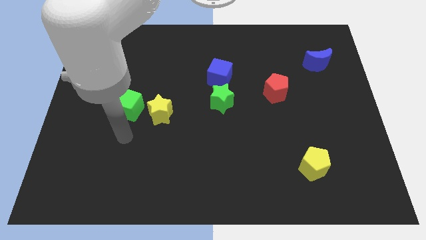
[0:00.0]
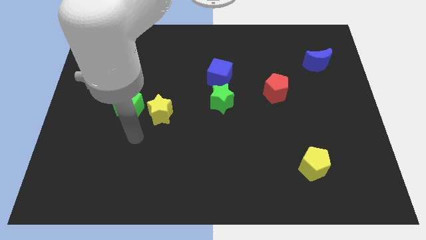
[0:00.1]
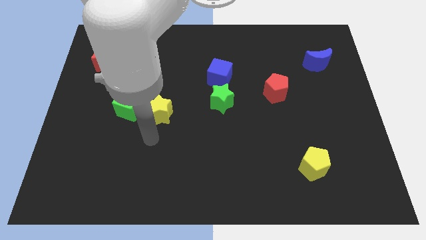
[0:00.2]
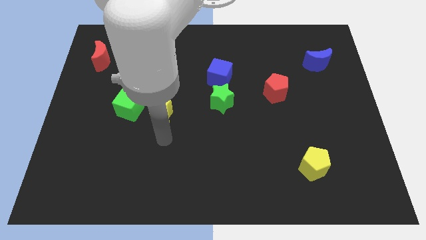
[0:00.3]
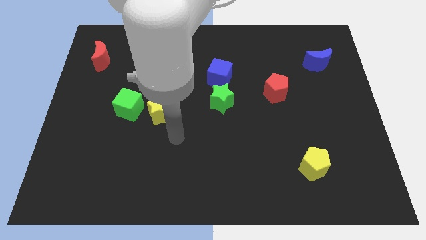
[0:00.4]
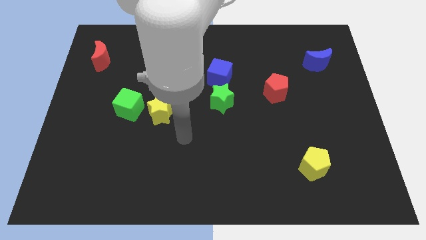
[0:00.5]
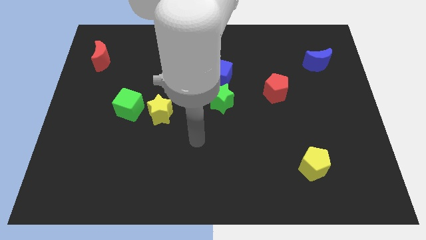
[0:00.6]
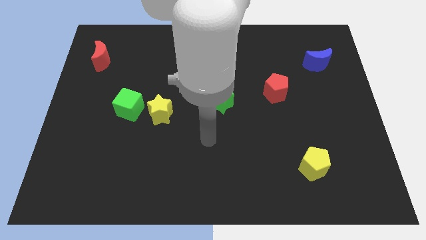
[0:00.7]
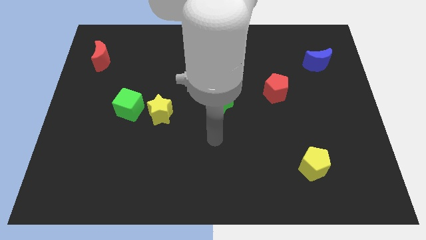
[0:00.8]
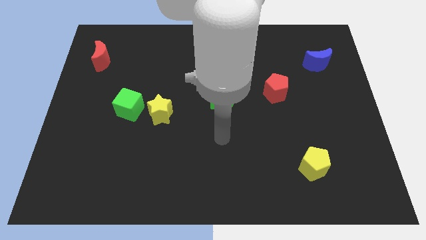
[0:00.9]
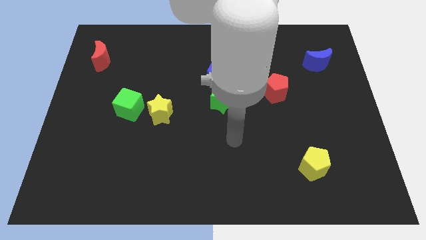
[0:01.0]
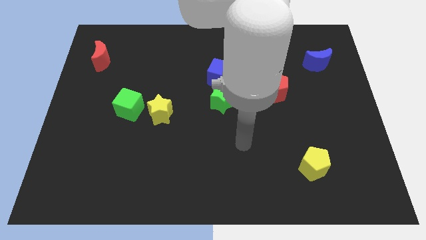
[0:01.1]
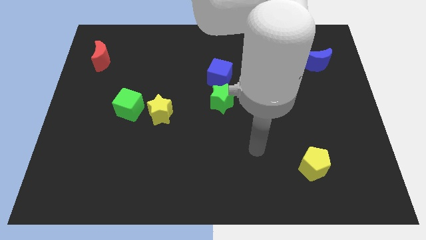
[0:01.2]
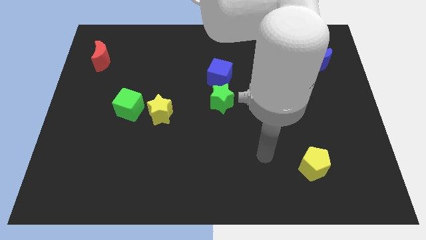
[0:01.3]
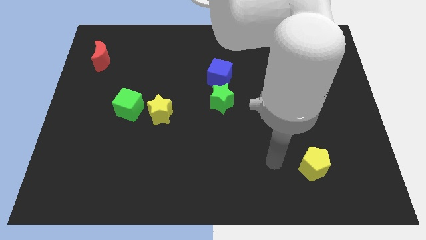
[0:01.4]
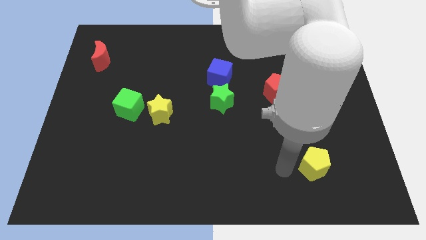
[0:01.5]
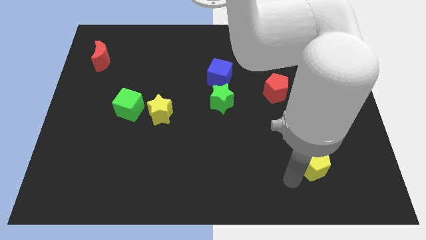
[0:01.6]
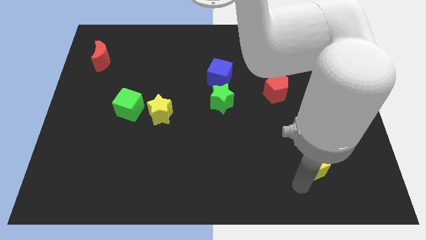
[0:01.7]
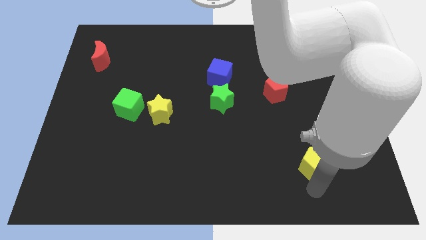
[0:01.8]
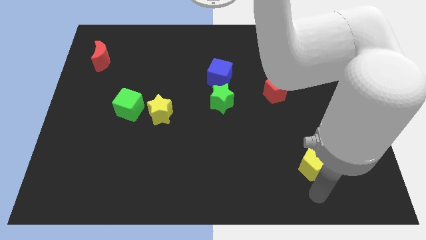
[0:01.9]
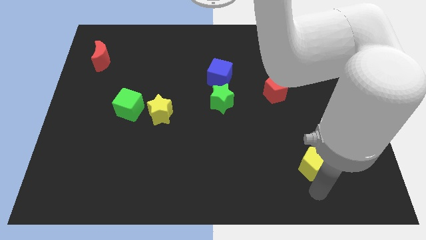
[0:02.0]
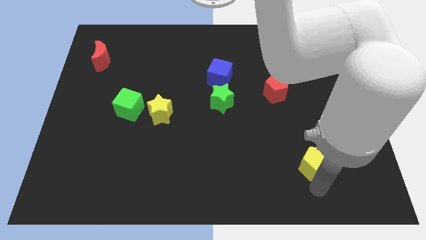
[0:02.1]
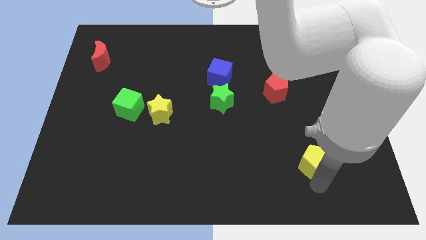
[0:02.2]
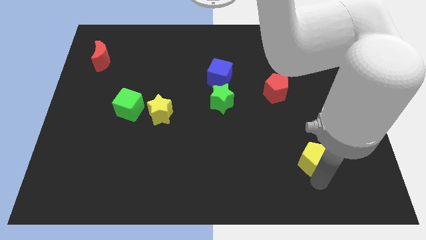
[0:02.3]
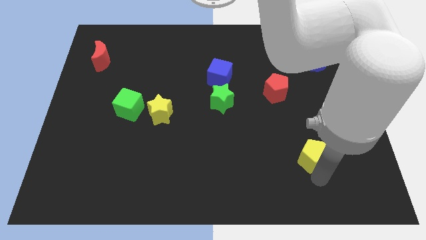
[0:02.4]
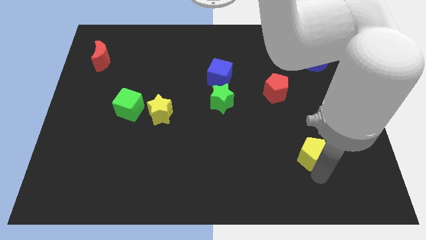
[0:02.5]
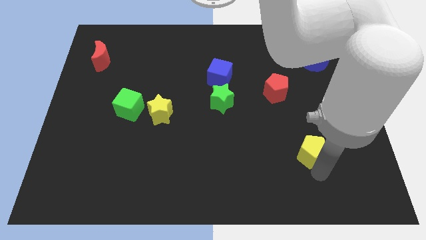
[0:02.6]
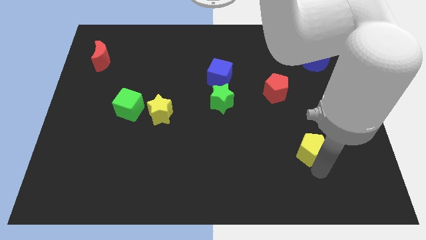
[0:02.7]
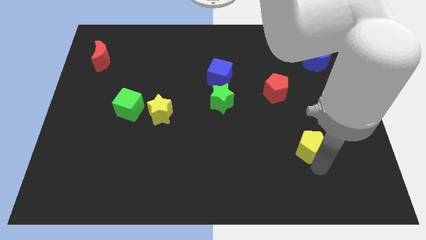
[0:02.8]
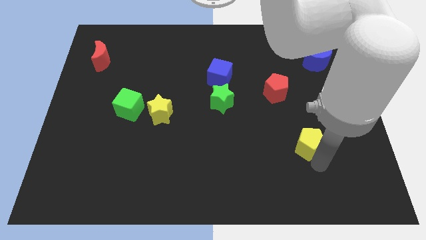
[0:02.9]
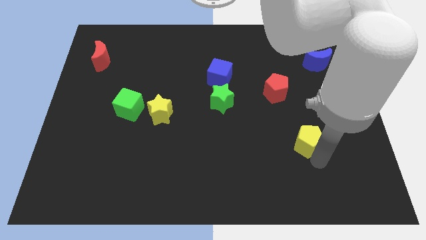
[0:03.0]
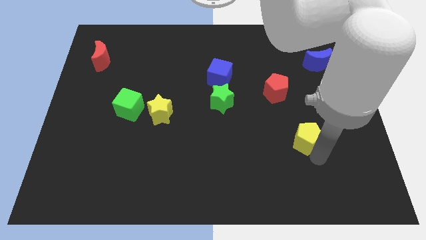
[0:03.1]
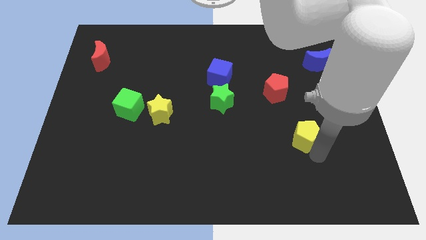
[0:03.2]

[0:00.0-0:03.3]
push the yellow pentagon upwards slightly

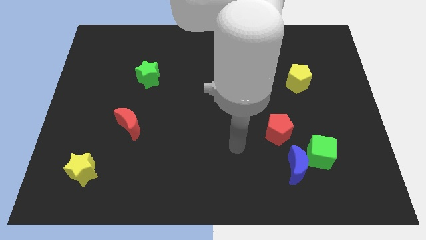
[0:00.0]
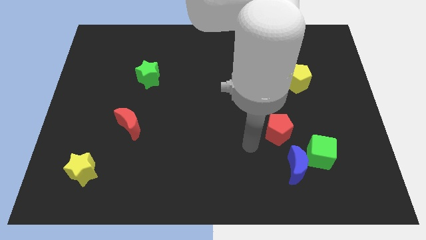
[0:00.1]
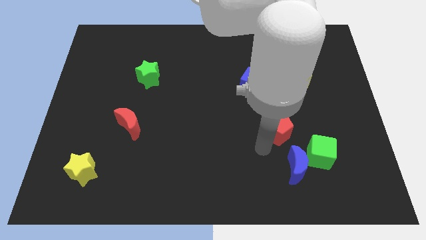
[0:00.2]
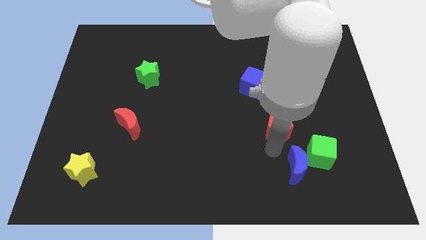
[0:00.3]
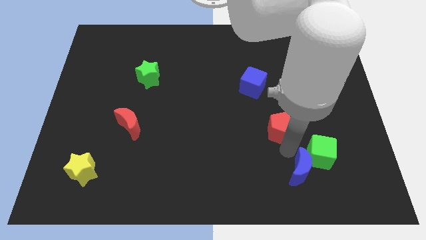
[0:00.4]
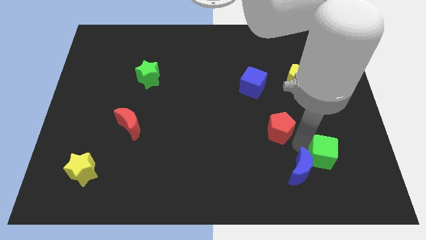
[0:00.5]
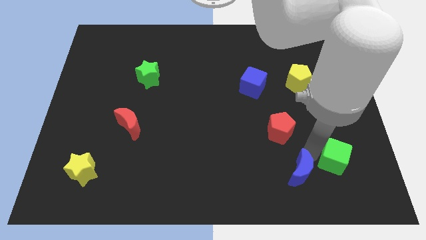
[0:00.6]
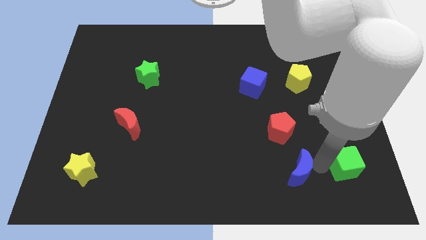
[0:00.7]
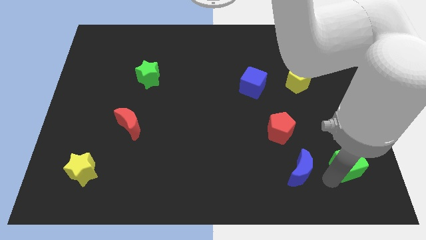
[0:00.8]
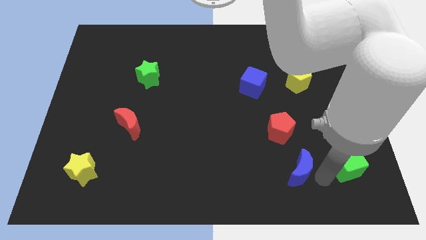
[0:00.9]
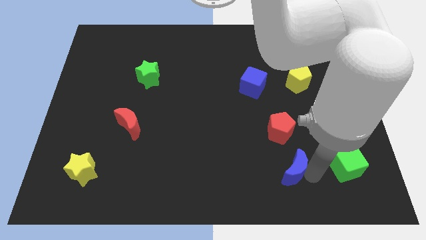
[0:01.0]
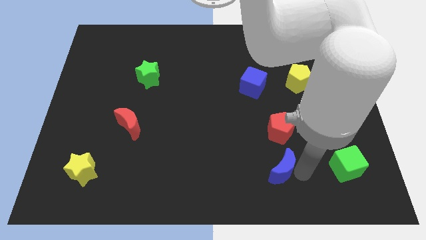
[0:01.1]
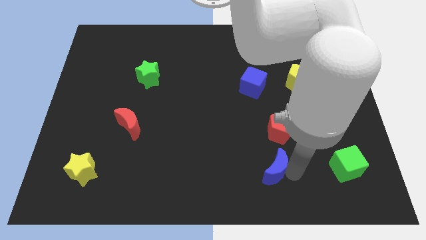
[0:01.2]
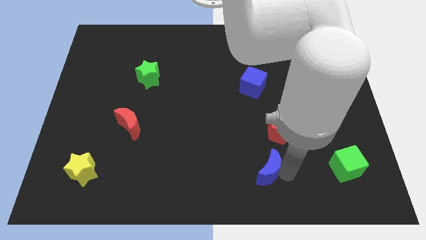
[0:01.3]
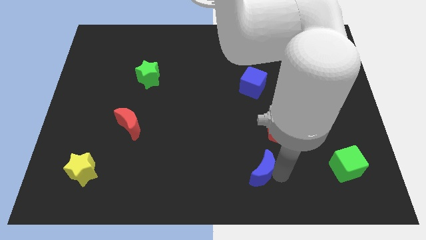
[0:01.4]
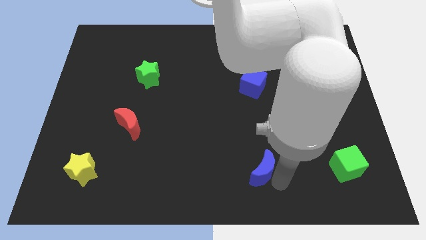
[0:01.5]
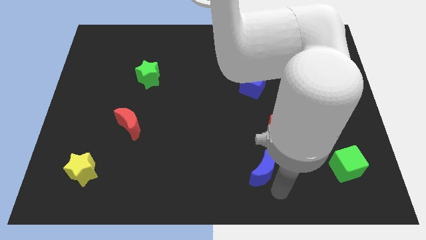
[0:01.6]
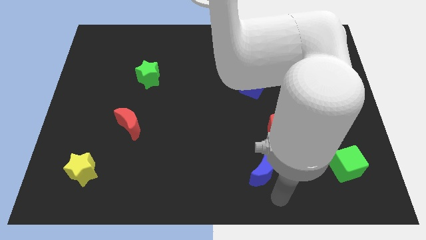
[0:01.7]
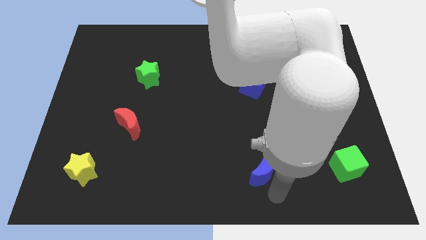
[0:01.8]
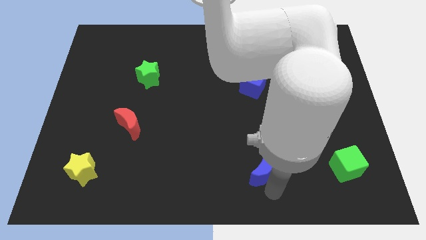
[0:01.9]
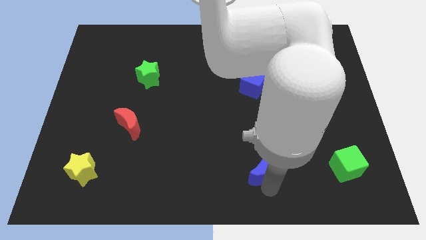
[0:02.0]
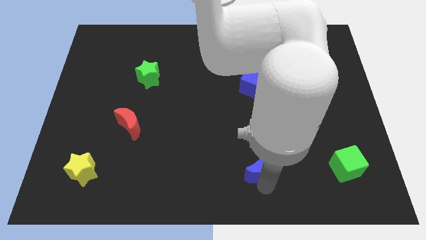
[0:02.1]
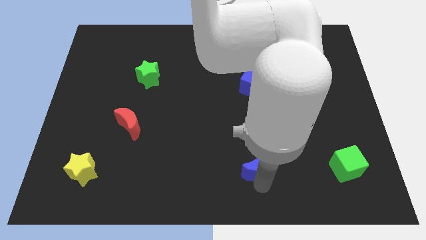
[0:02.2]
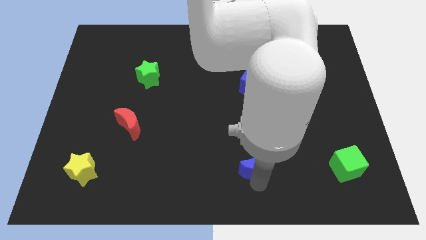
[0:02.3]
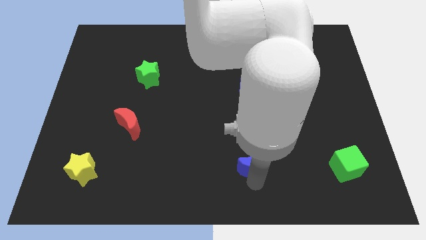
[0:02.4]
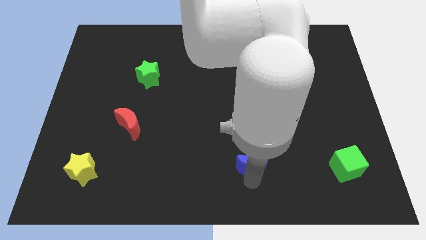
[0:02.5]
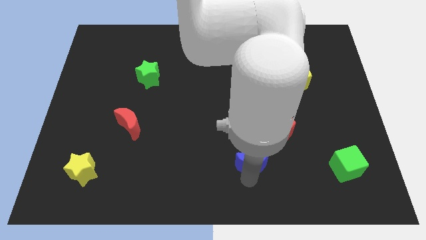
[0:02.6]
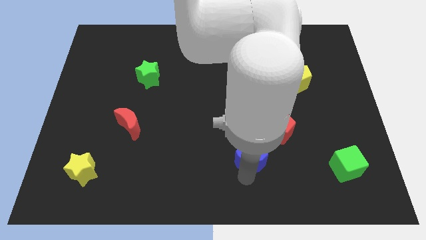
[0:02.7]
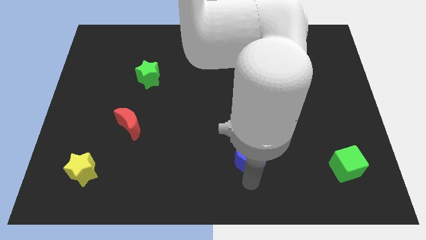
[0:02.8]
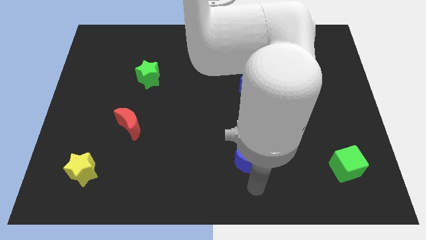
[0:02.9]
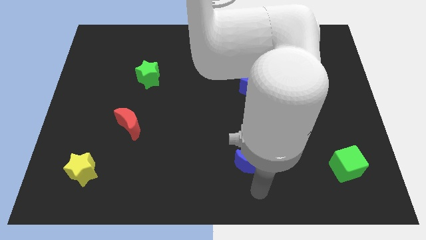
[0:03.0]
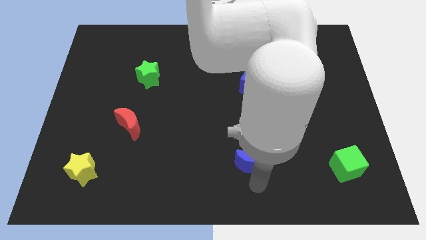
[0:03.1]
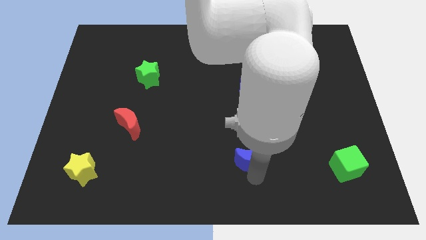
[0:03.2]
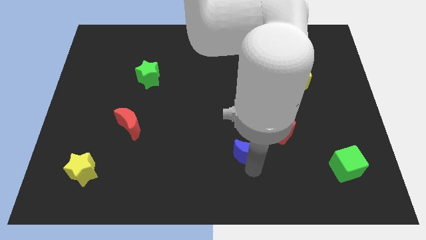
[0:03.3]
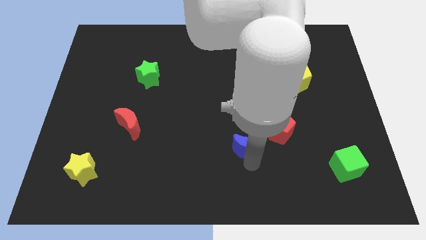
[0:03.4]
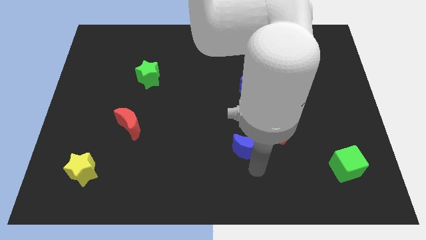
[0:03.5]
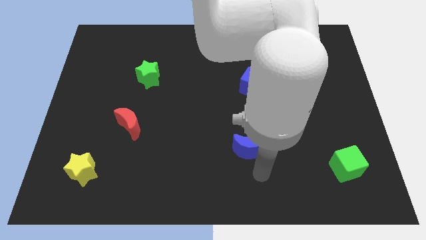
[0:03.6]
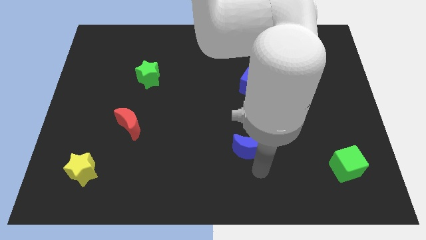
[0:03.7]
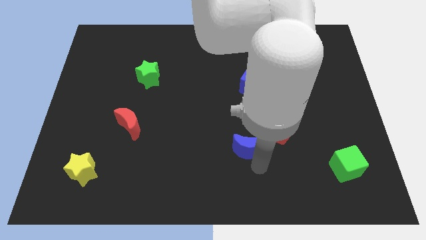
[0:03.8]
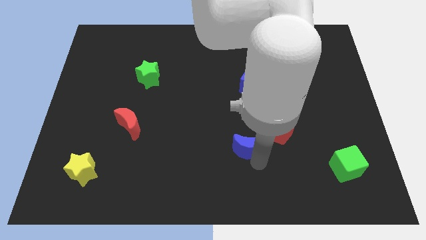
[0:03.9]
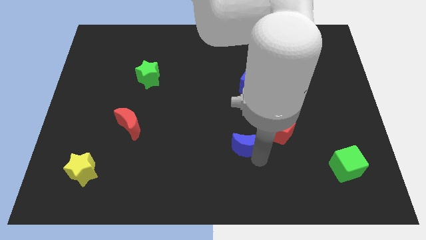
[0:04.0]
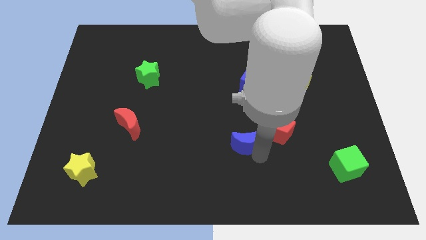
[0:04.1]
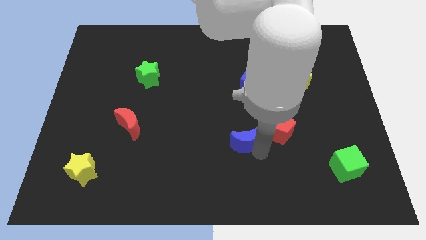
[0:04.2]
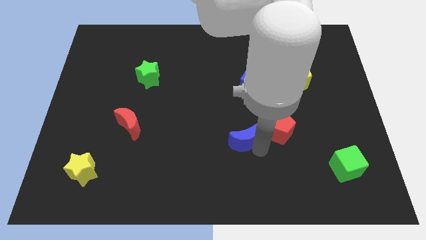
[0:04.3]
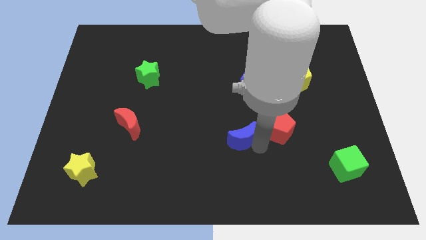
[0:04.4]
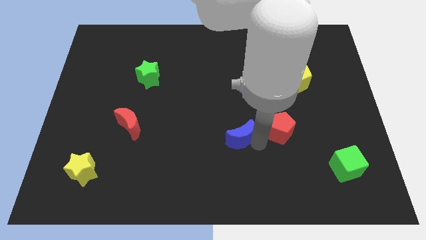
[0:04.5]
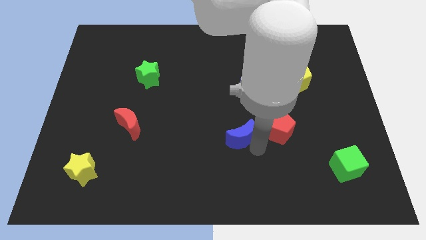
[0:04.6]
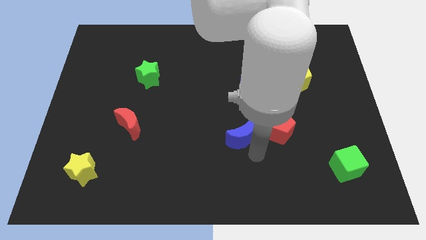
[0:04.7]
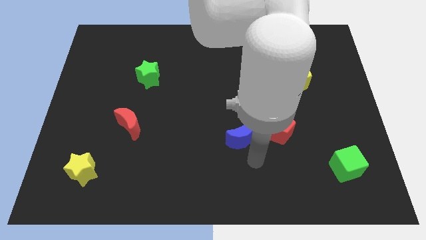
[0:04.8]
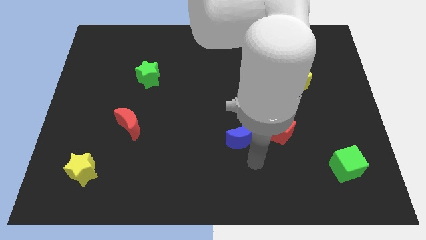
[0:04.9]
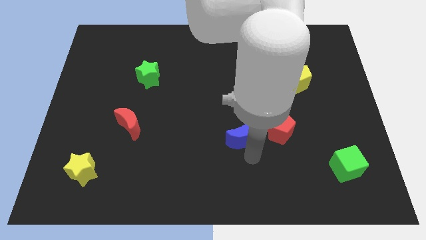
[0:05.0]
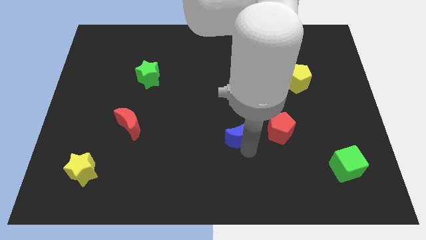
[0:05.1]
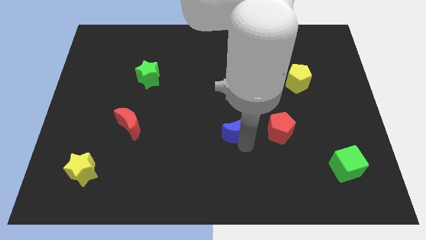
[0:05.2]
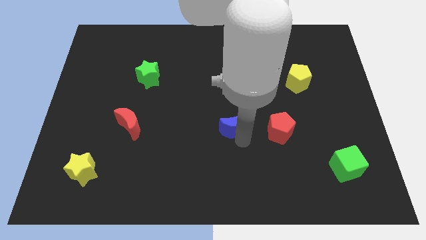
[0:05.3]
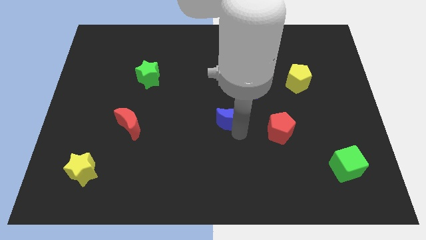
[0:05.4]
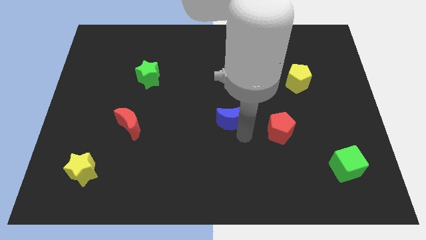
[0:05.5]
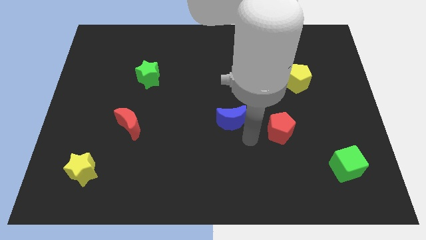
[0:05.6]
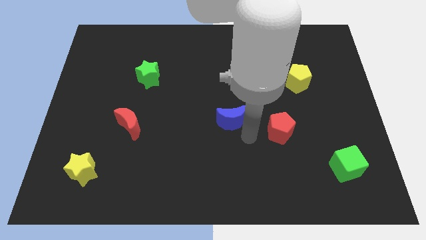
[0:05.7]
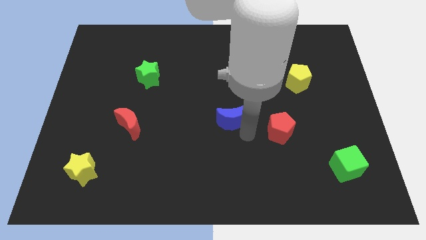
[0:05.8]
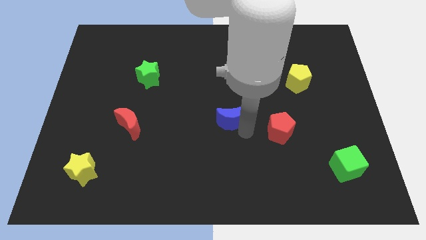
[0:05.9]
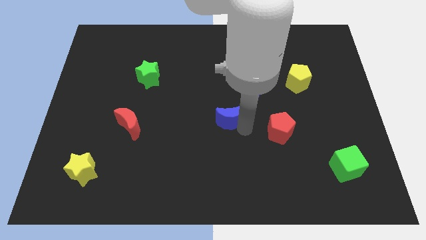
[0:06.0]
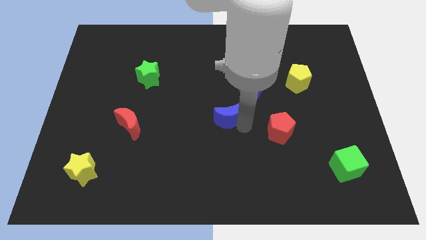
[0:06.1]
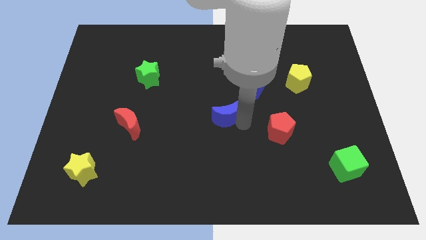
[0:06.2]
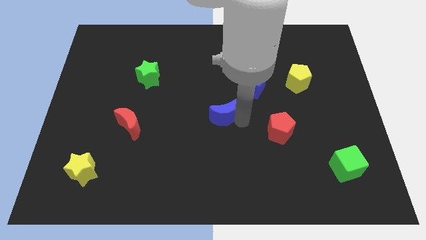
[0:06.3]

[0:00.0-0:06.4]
push the blue moon up and left diagonally
